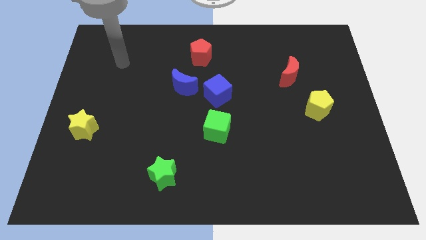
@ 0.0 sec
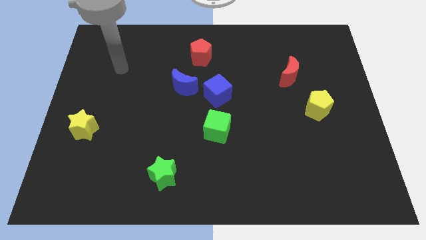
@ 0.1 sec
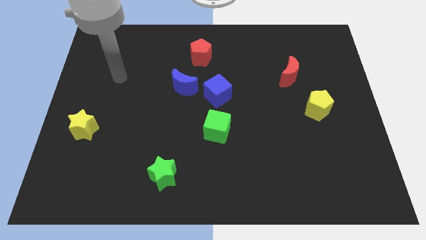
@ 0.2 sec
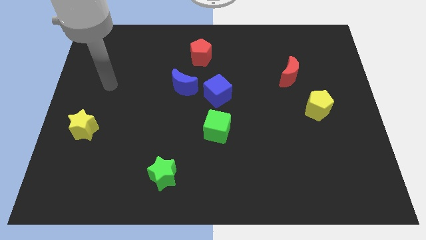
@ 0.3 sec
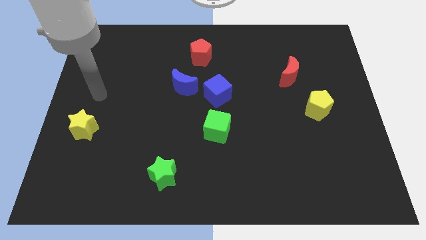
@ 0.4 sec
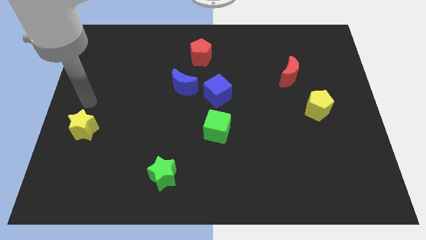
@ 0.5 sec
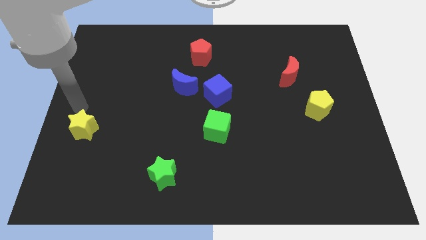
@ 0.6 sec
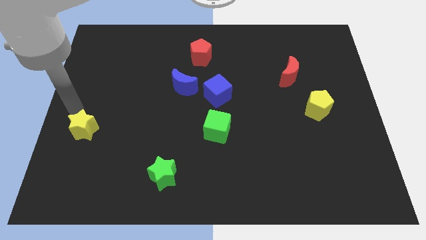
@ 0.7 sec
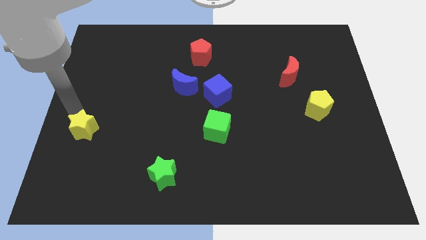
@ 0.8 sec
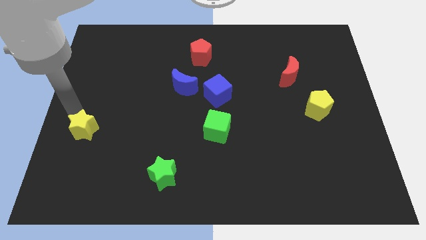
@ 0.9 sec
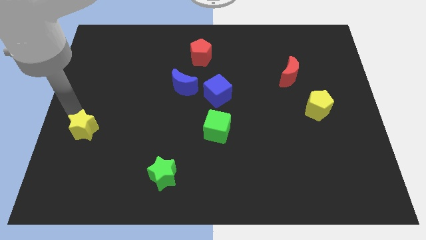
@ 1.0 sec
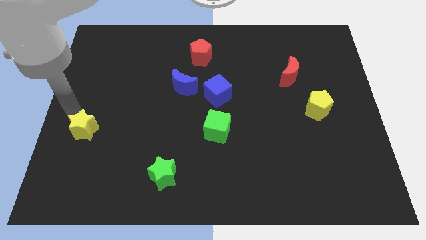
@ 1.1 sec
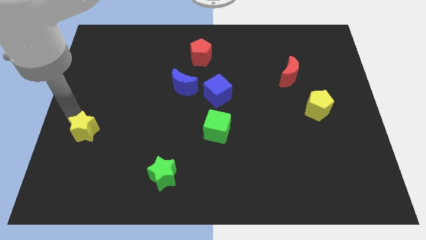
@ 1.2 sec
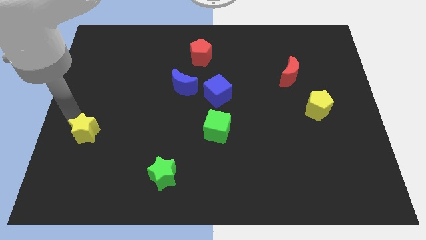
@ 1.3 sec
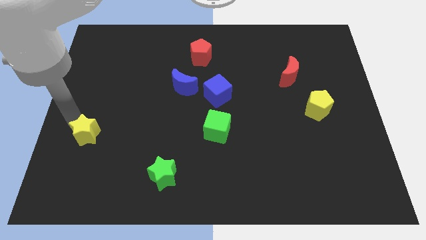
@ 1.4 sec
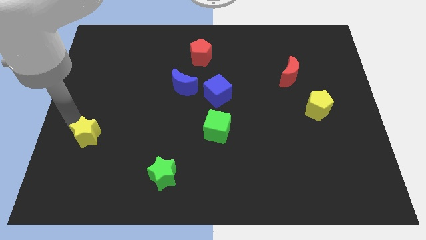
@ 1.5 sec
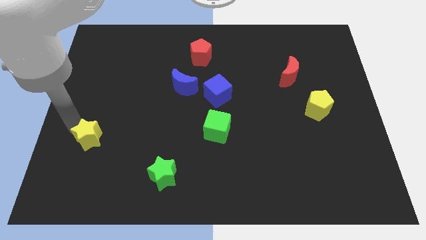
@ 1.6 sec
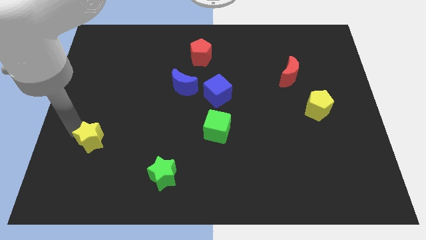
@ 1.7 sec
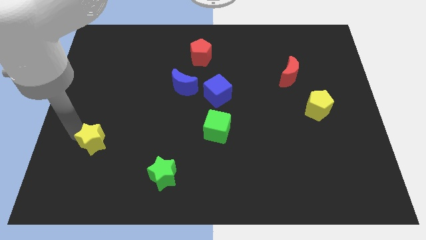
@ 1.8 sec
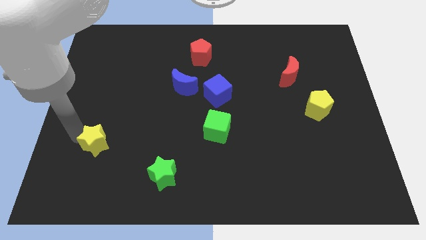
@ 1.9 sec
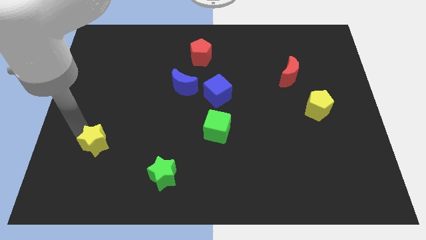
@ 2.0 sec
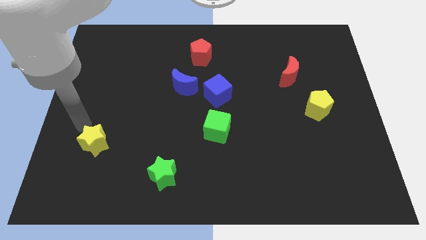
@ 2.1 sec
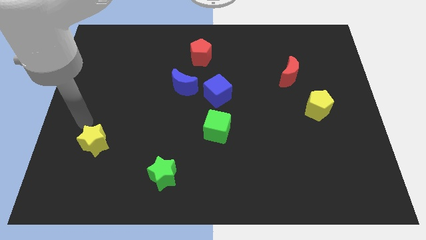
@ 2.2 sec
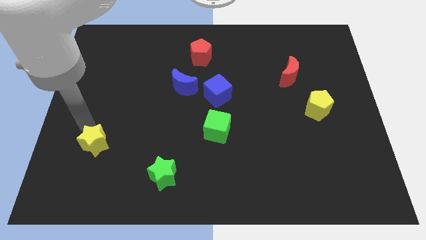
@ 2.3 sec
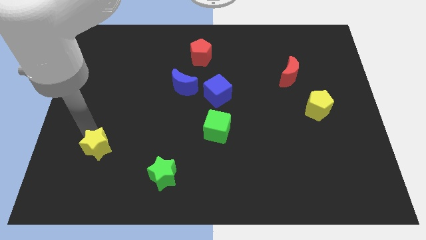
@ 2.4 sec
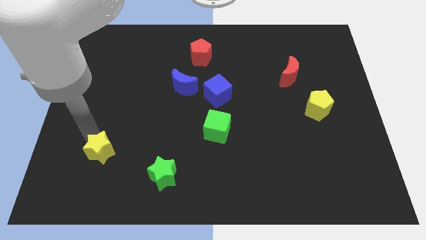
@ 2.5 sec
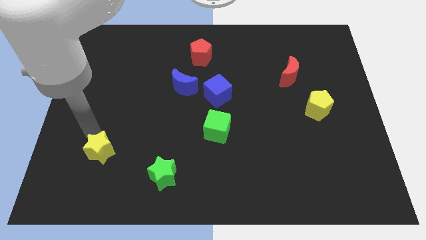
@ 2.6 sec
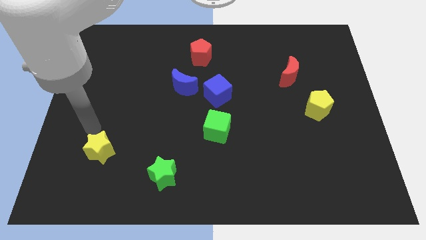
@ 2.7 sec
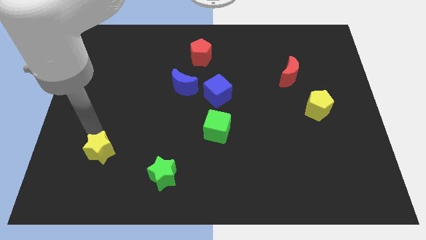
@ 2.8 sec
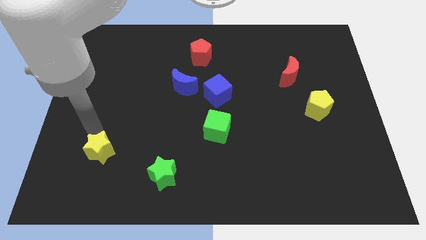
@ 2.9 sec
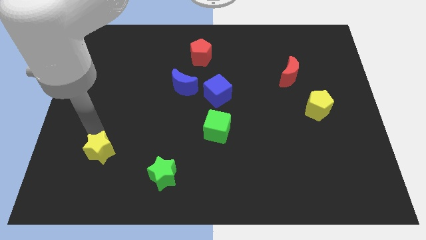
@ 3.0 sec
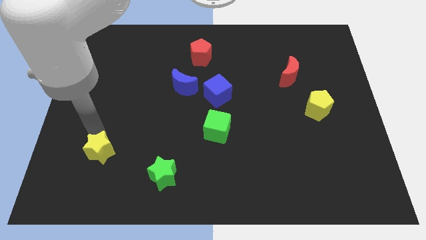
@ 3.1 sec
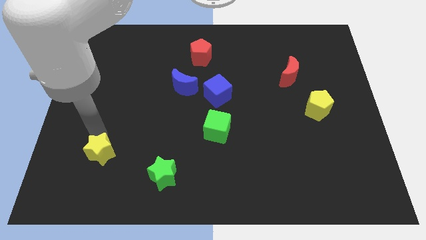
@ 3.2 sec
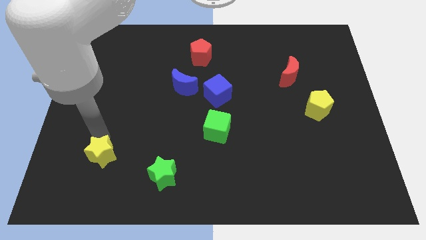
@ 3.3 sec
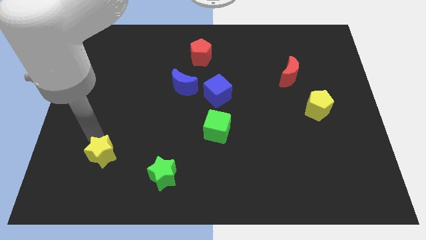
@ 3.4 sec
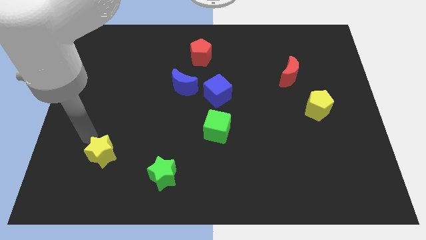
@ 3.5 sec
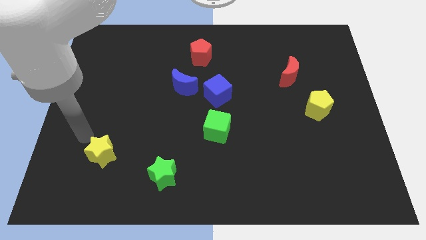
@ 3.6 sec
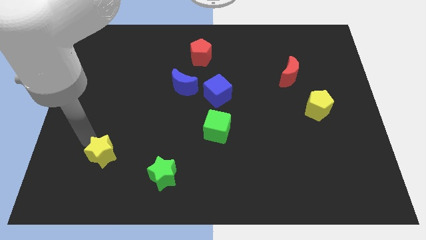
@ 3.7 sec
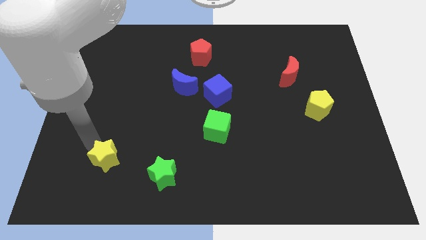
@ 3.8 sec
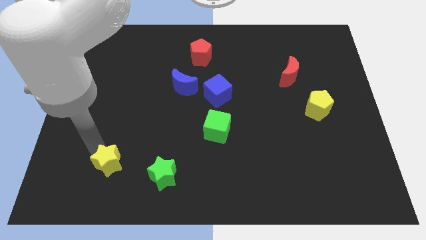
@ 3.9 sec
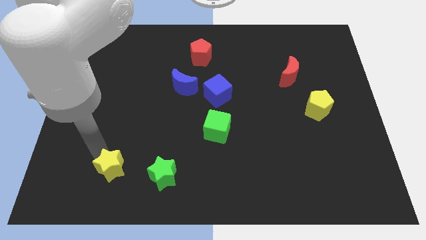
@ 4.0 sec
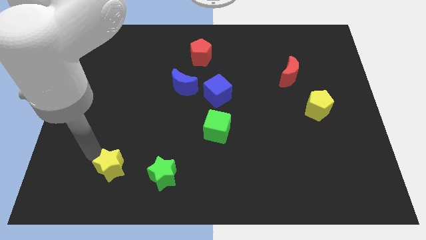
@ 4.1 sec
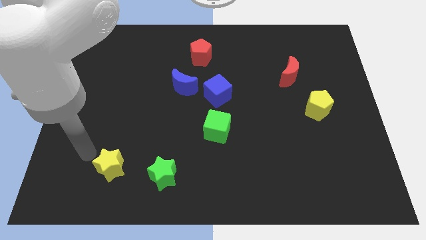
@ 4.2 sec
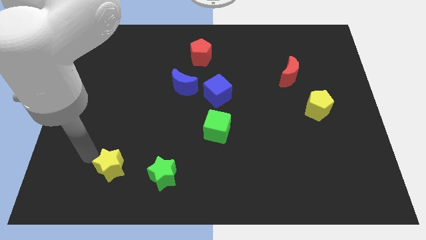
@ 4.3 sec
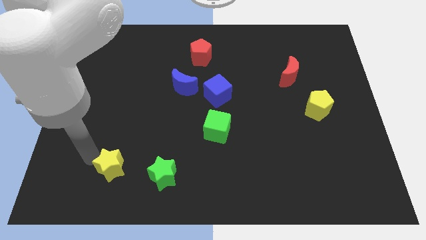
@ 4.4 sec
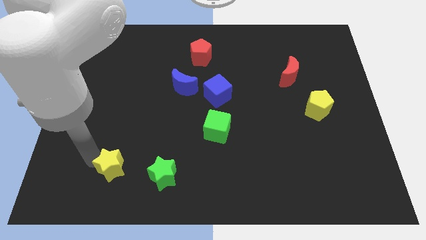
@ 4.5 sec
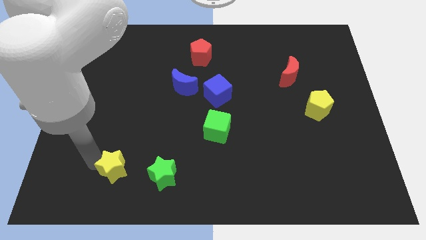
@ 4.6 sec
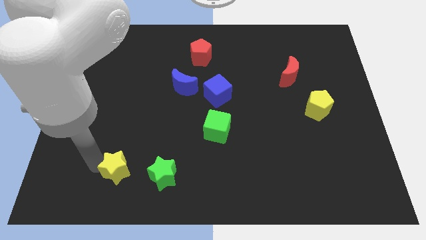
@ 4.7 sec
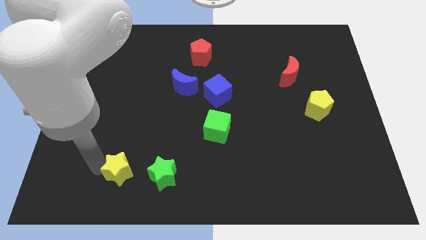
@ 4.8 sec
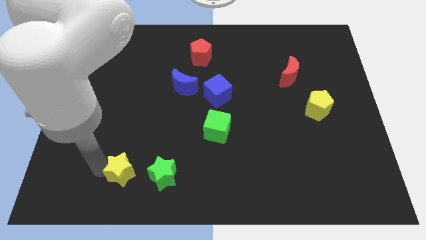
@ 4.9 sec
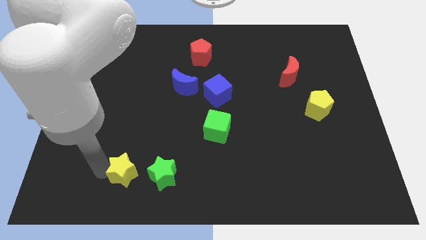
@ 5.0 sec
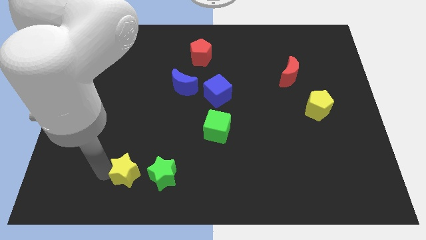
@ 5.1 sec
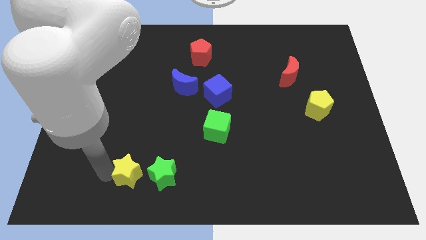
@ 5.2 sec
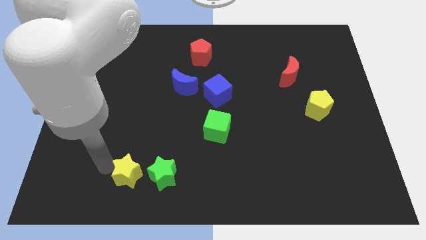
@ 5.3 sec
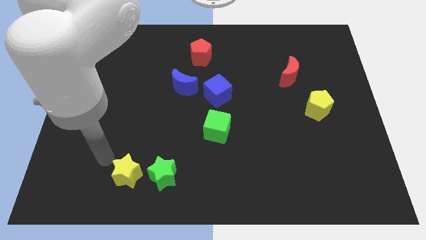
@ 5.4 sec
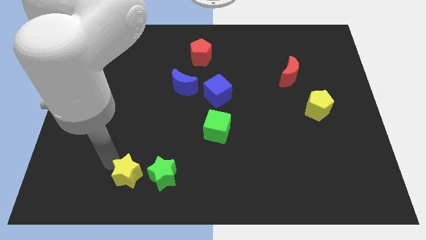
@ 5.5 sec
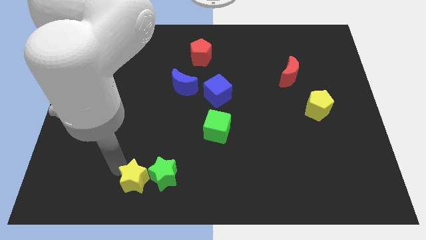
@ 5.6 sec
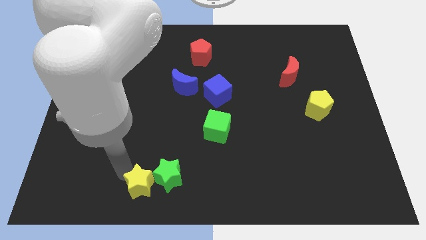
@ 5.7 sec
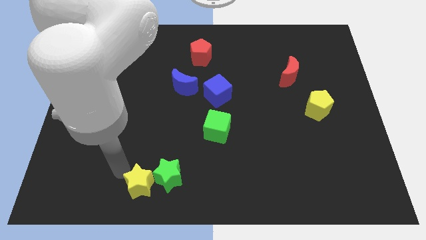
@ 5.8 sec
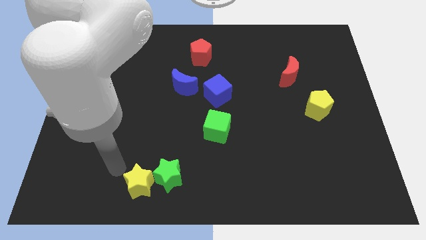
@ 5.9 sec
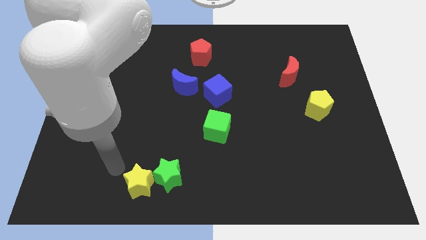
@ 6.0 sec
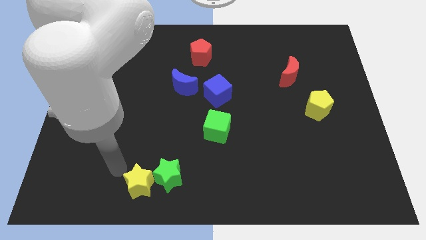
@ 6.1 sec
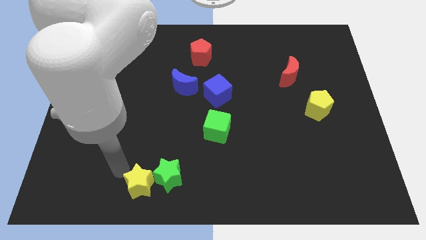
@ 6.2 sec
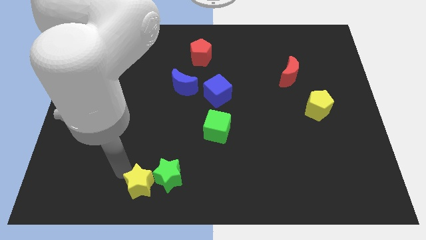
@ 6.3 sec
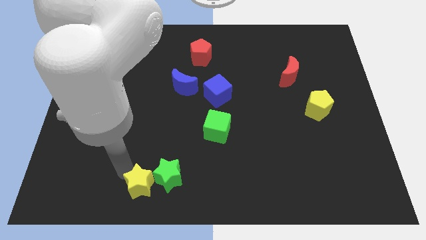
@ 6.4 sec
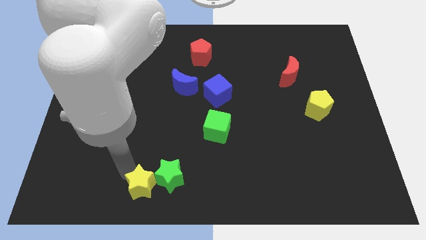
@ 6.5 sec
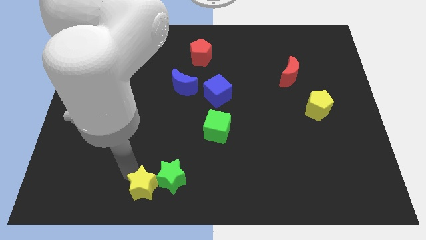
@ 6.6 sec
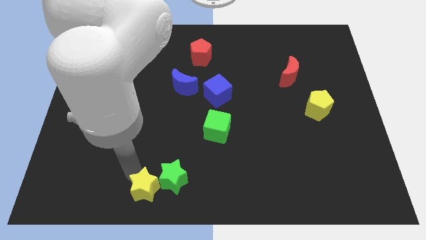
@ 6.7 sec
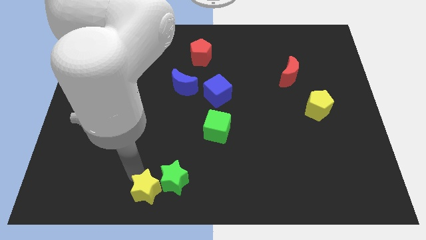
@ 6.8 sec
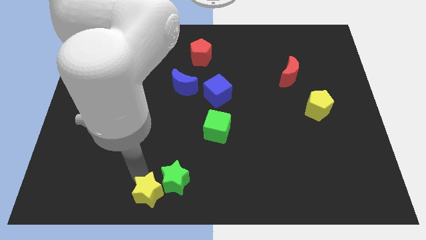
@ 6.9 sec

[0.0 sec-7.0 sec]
move the yellow star to the bottom side

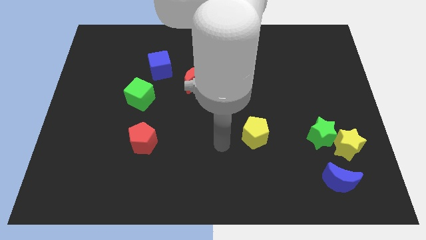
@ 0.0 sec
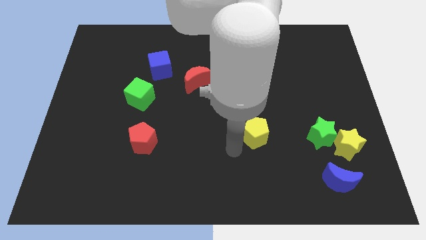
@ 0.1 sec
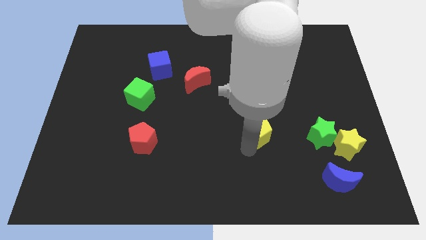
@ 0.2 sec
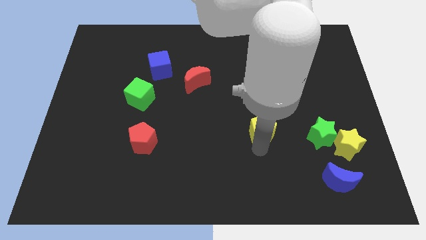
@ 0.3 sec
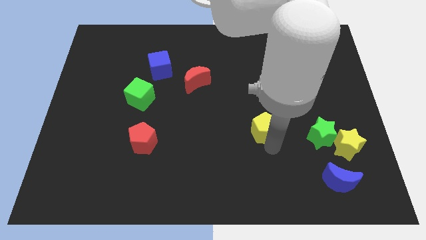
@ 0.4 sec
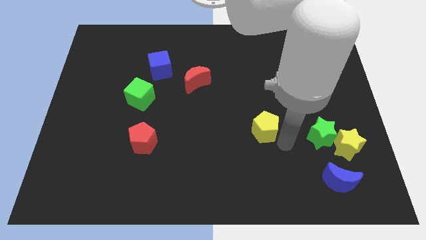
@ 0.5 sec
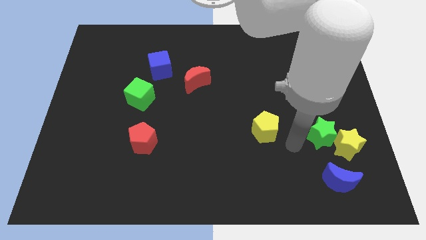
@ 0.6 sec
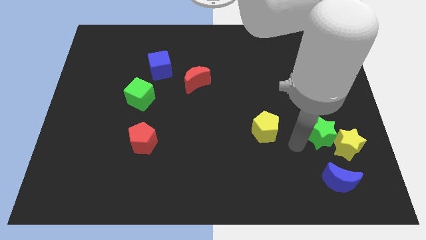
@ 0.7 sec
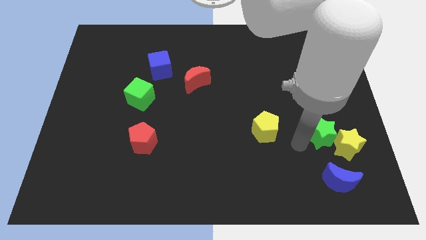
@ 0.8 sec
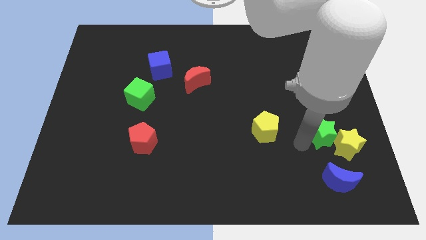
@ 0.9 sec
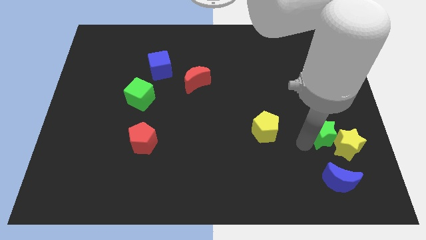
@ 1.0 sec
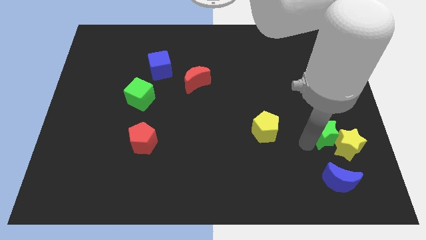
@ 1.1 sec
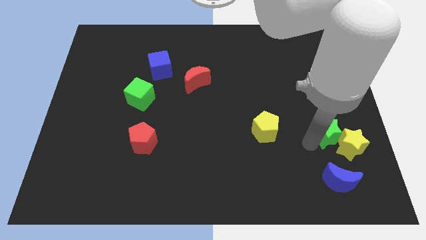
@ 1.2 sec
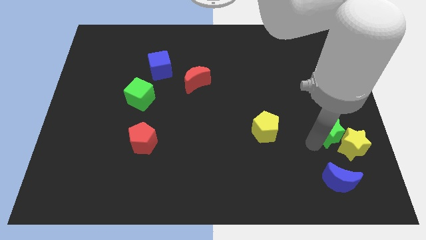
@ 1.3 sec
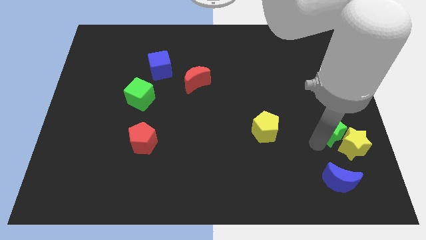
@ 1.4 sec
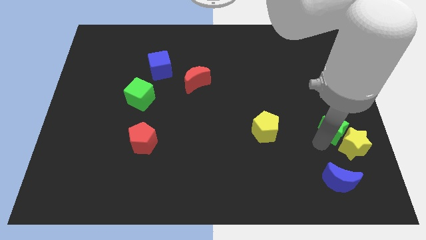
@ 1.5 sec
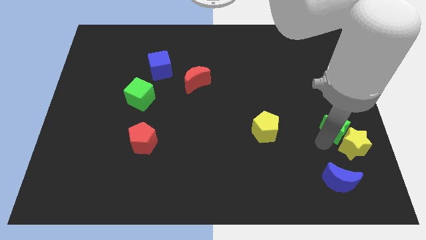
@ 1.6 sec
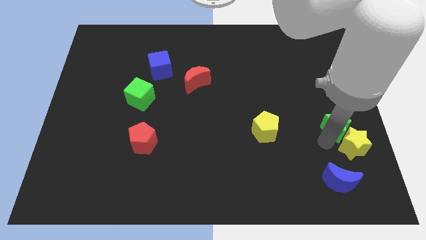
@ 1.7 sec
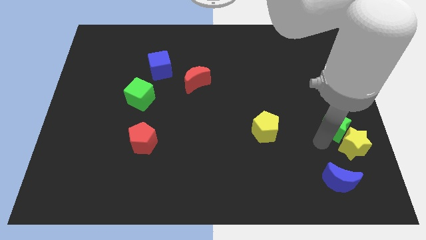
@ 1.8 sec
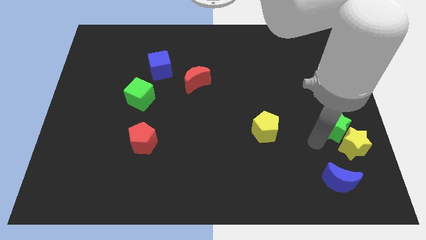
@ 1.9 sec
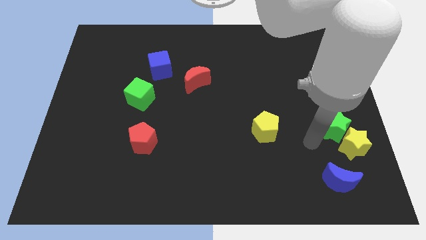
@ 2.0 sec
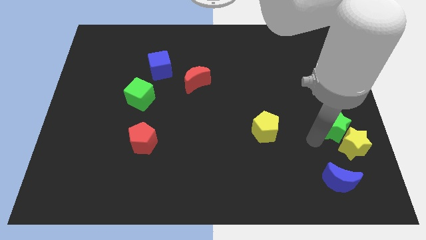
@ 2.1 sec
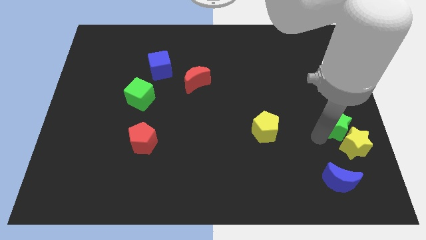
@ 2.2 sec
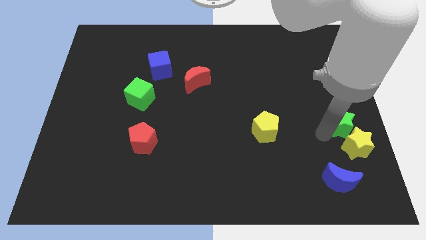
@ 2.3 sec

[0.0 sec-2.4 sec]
move the green star to the center right
